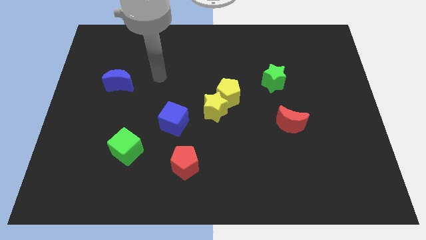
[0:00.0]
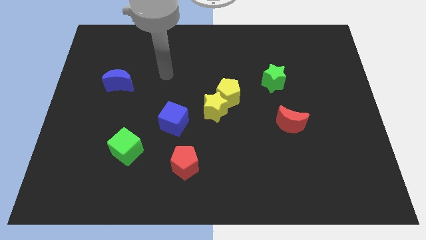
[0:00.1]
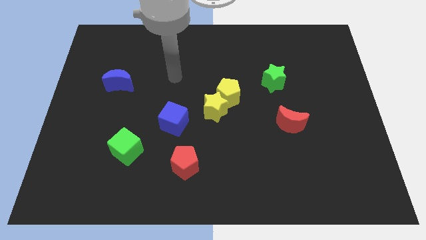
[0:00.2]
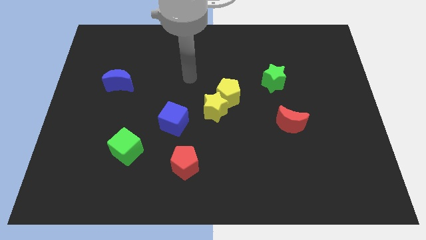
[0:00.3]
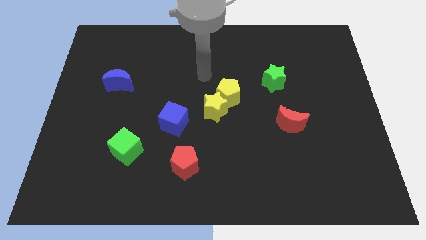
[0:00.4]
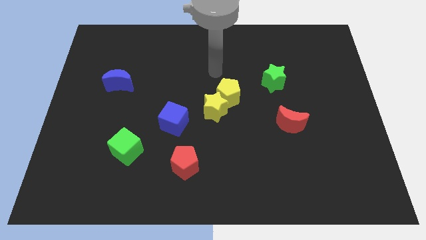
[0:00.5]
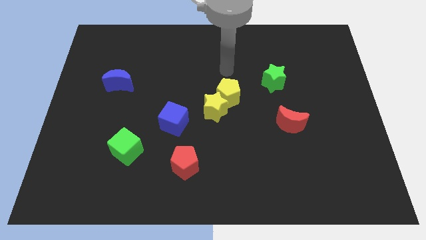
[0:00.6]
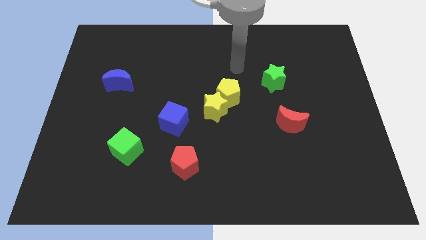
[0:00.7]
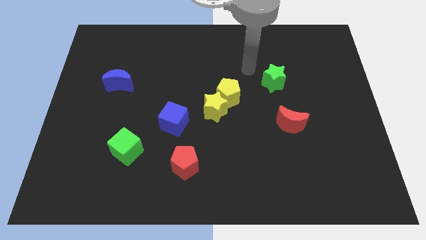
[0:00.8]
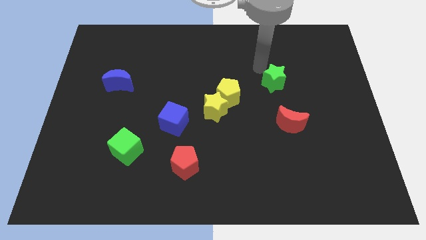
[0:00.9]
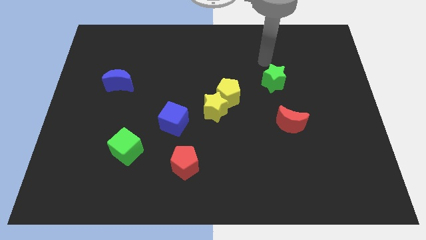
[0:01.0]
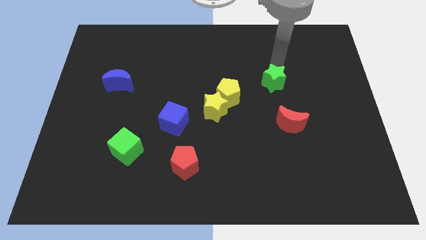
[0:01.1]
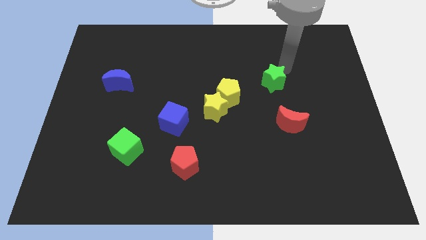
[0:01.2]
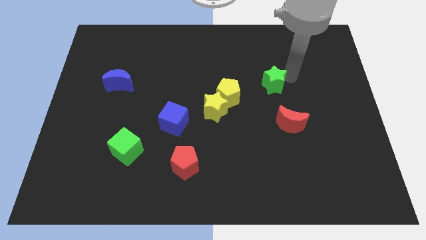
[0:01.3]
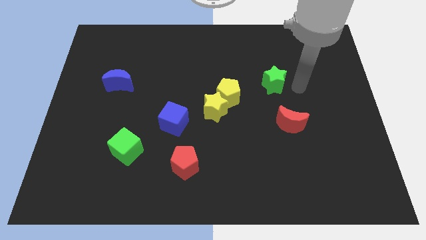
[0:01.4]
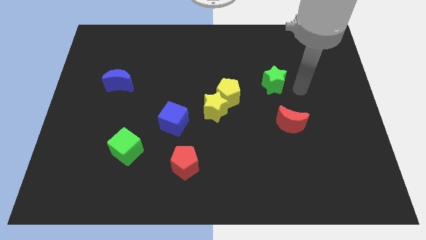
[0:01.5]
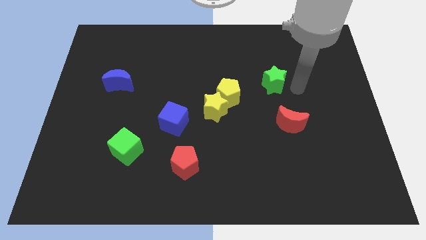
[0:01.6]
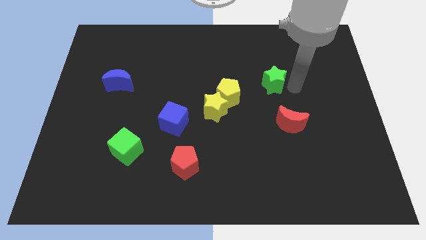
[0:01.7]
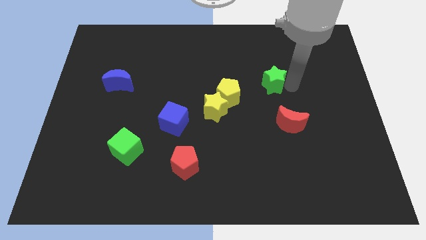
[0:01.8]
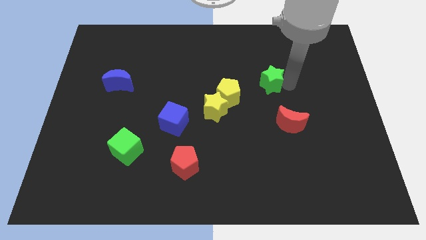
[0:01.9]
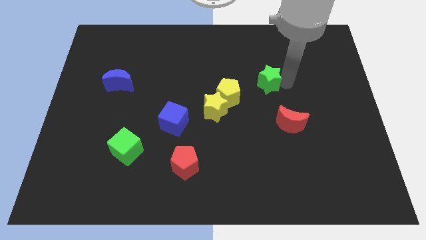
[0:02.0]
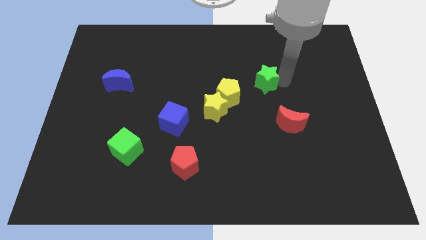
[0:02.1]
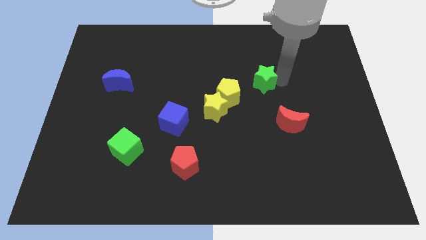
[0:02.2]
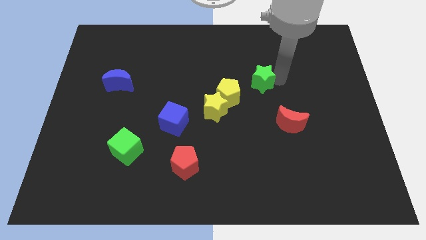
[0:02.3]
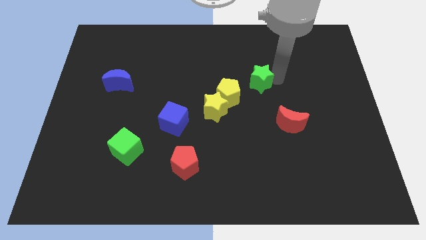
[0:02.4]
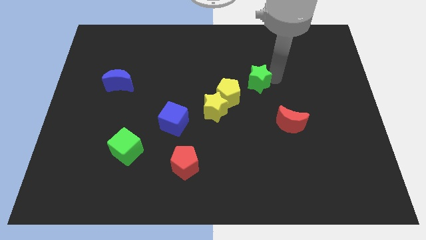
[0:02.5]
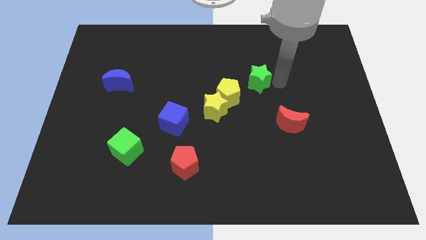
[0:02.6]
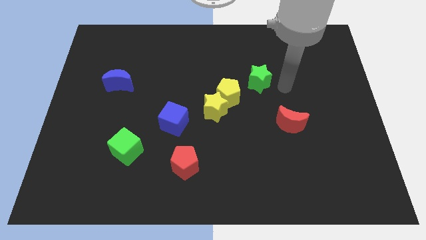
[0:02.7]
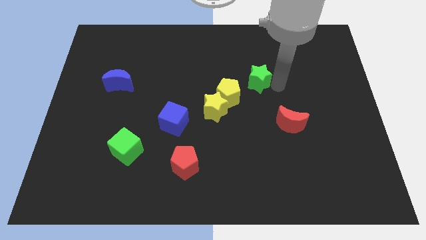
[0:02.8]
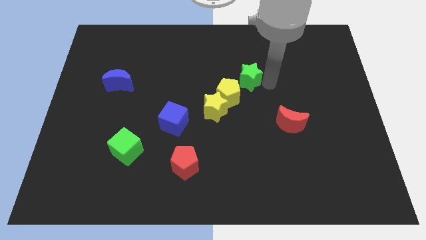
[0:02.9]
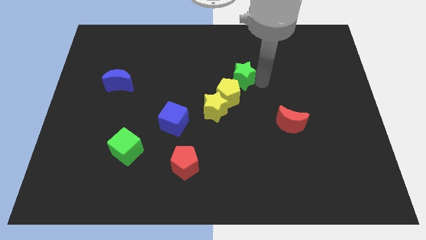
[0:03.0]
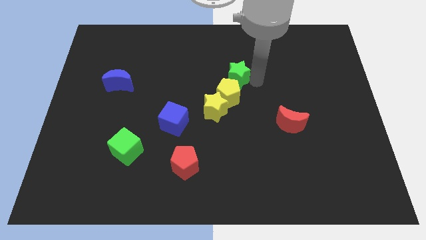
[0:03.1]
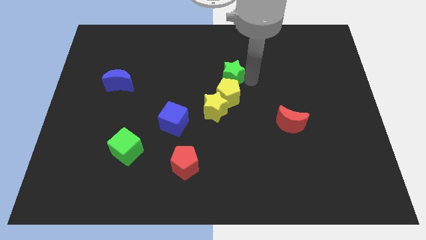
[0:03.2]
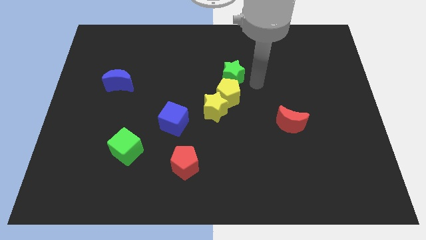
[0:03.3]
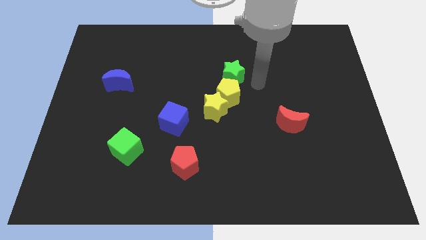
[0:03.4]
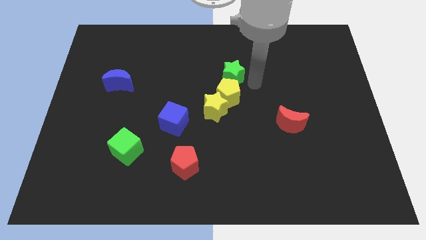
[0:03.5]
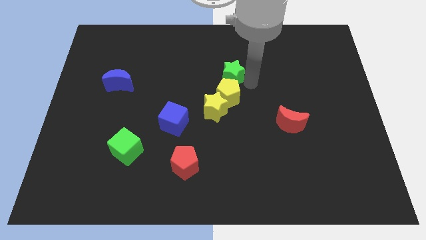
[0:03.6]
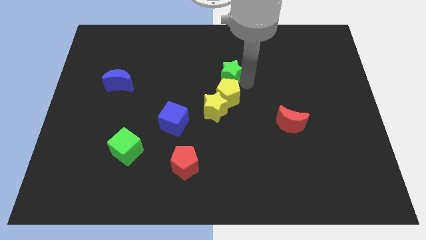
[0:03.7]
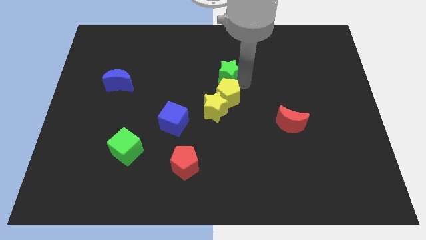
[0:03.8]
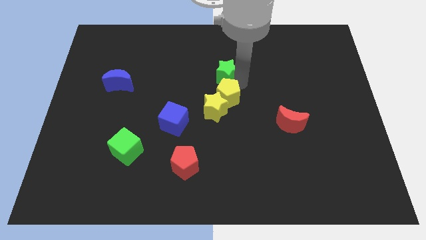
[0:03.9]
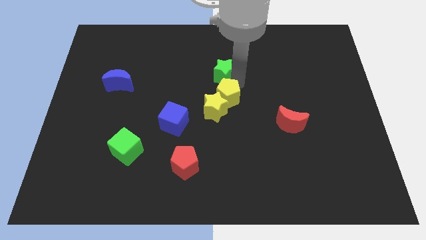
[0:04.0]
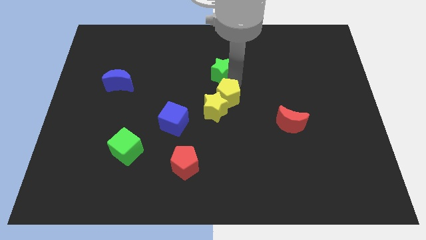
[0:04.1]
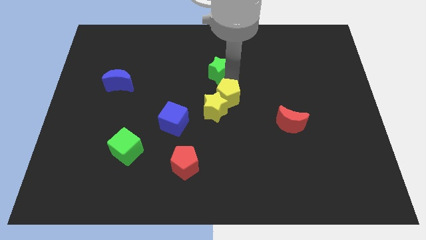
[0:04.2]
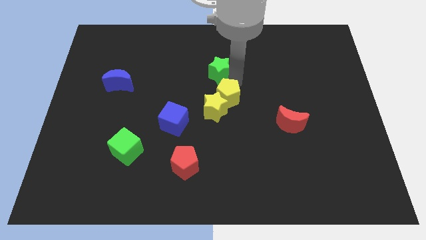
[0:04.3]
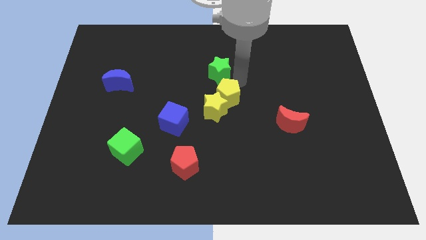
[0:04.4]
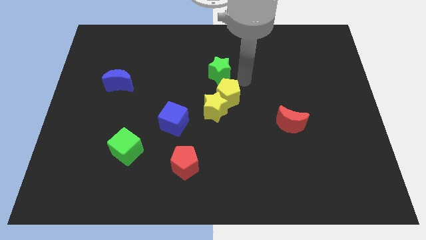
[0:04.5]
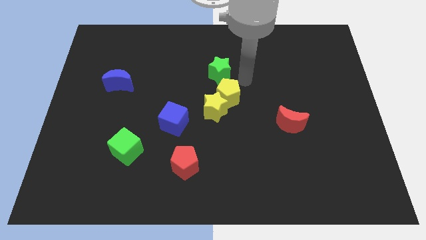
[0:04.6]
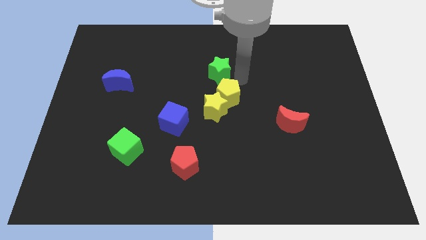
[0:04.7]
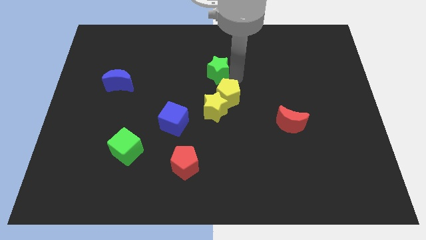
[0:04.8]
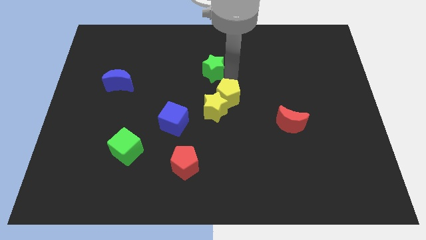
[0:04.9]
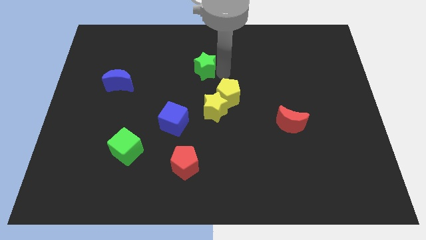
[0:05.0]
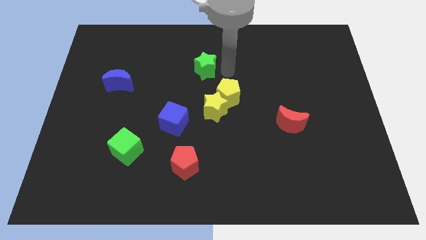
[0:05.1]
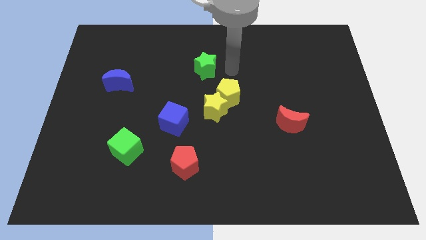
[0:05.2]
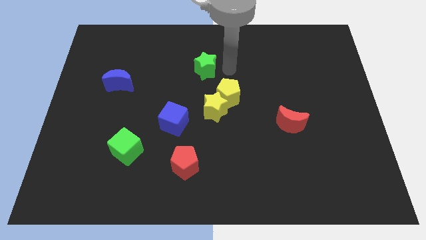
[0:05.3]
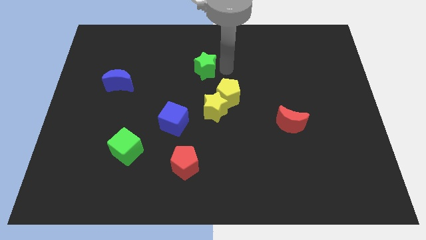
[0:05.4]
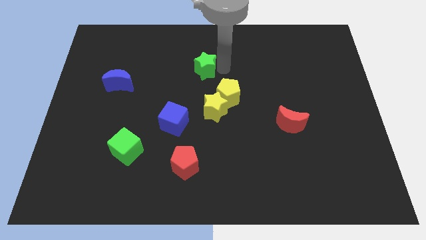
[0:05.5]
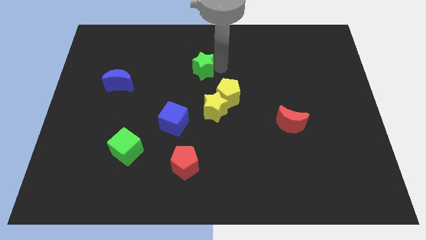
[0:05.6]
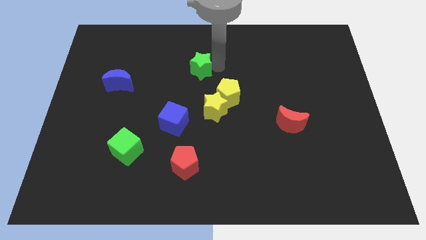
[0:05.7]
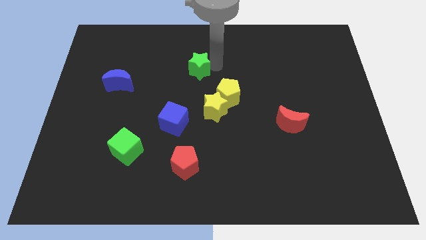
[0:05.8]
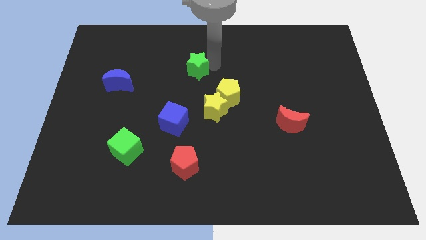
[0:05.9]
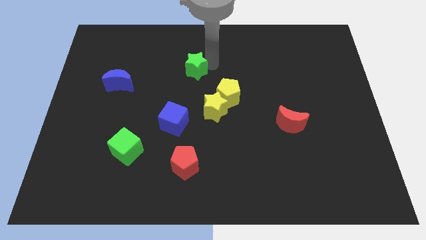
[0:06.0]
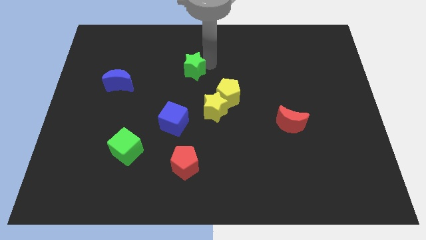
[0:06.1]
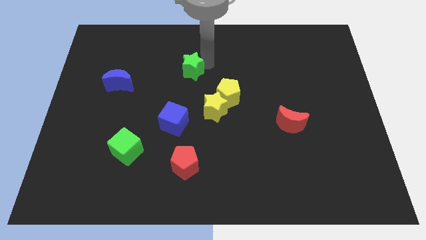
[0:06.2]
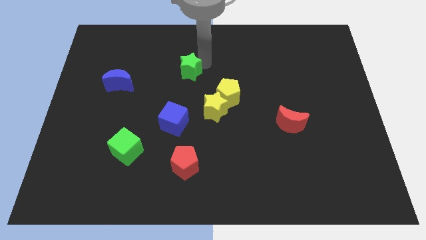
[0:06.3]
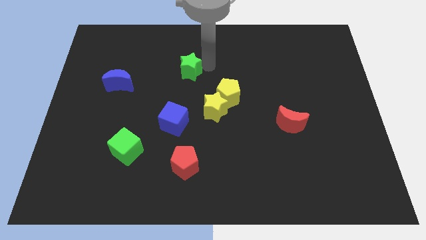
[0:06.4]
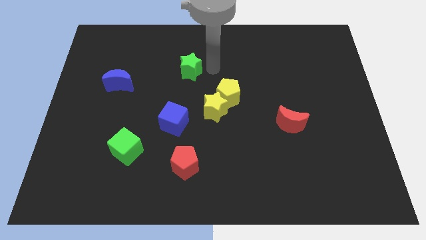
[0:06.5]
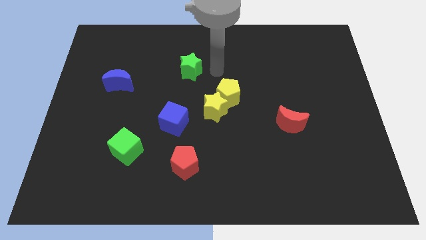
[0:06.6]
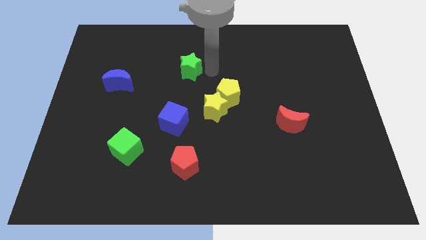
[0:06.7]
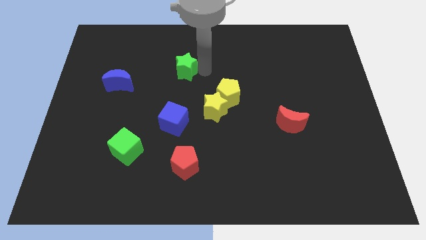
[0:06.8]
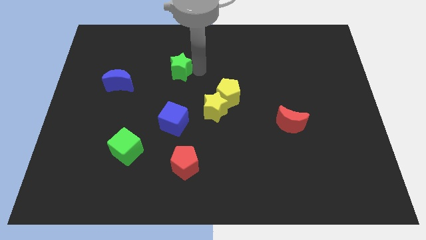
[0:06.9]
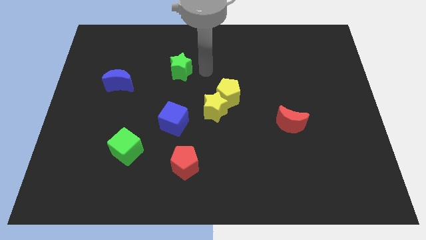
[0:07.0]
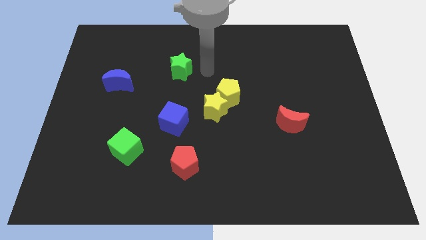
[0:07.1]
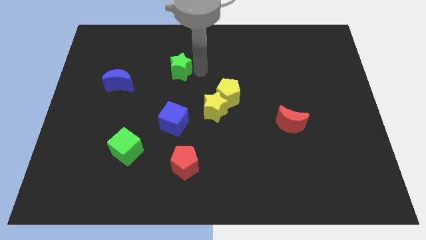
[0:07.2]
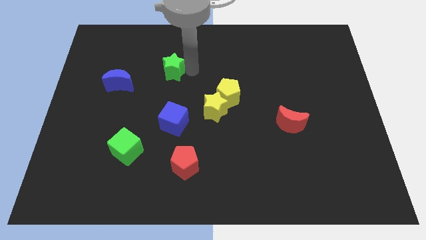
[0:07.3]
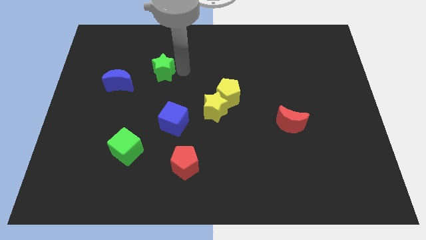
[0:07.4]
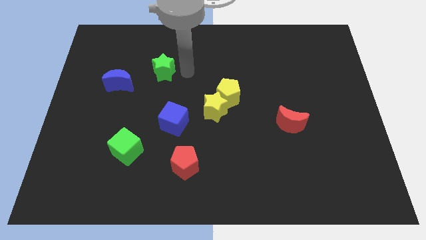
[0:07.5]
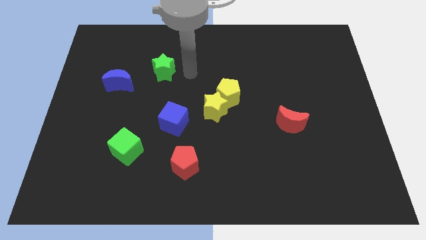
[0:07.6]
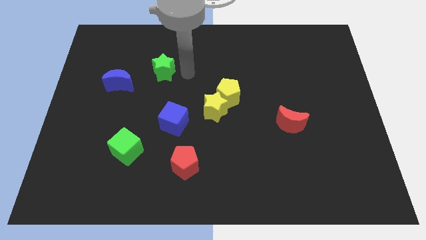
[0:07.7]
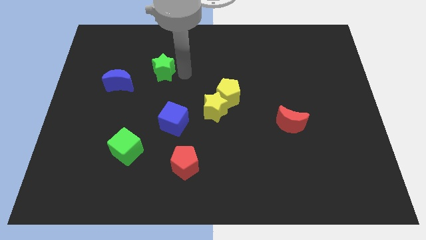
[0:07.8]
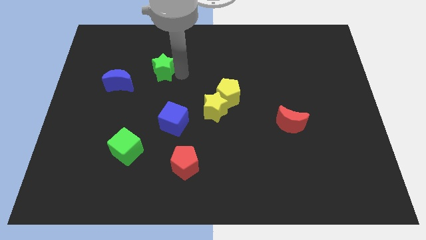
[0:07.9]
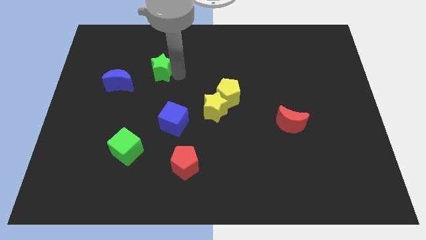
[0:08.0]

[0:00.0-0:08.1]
move the green star to the top right side of the blue moon
